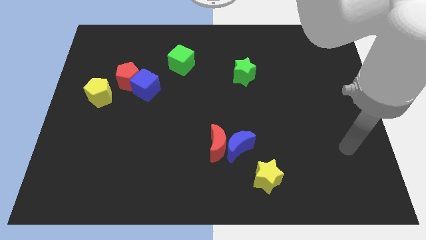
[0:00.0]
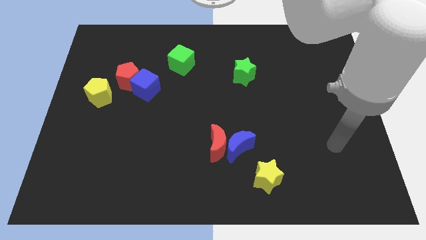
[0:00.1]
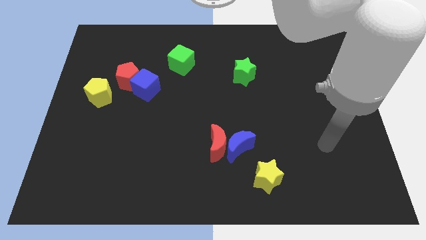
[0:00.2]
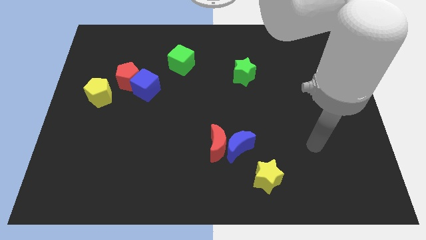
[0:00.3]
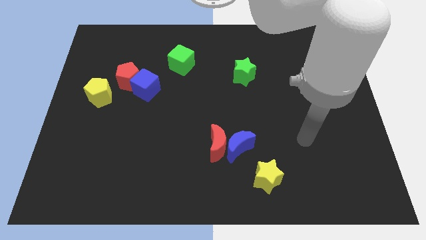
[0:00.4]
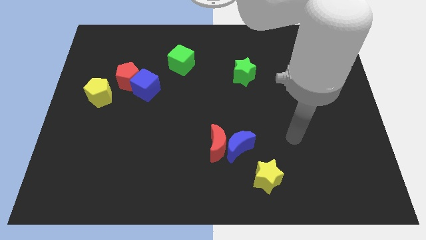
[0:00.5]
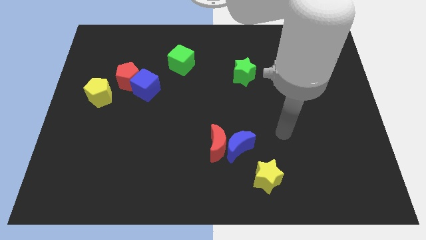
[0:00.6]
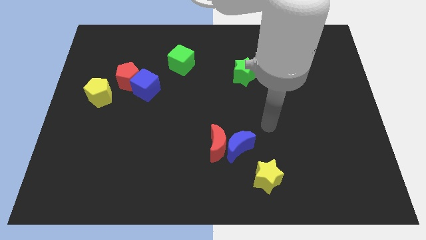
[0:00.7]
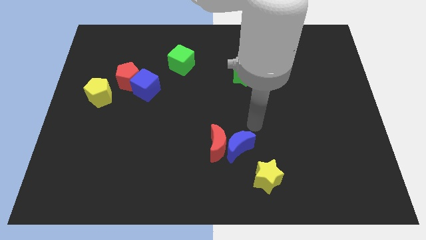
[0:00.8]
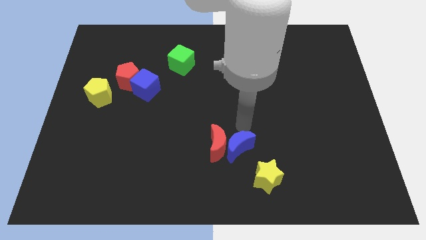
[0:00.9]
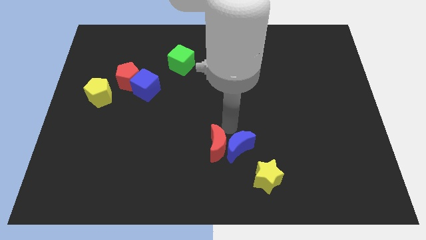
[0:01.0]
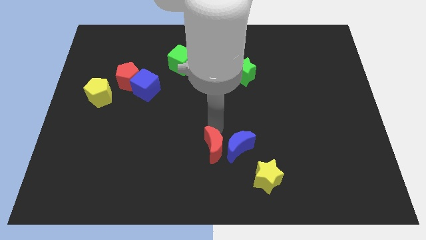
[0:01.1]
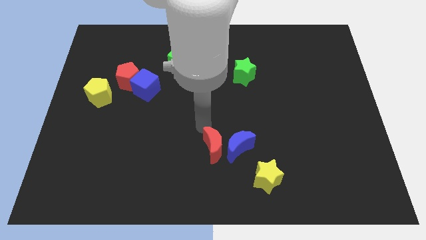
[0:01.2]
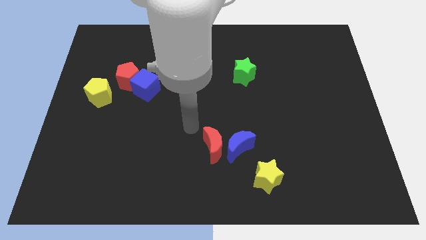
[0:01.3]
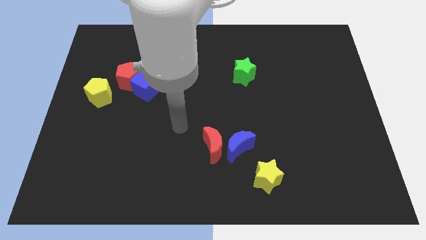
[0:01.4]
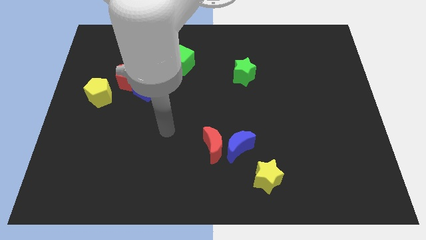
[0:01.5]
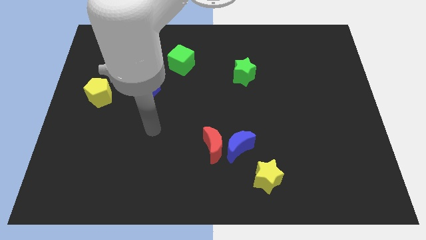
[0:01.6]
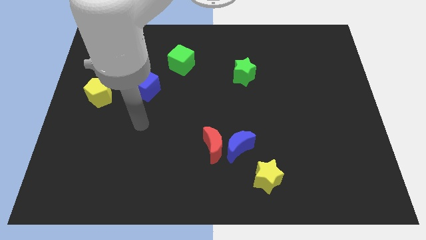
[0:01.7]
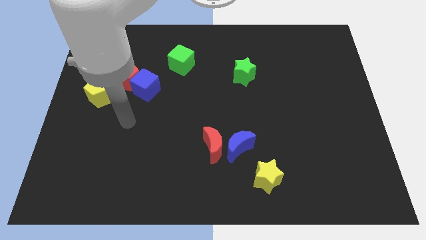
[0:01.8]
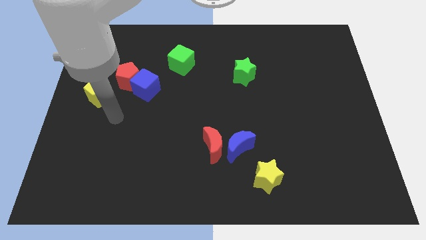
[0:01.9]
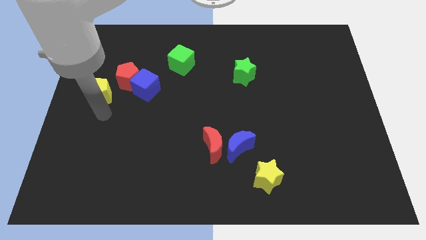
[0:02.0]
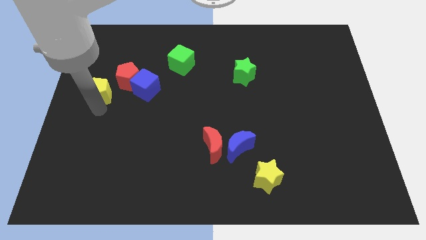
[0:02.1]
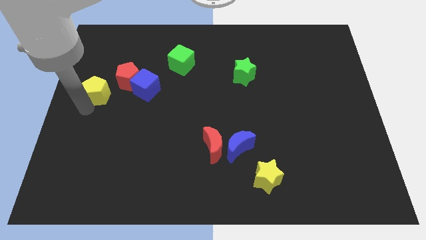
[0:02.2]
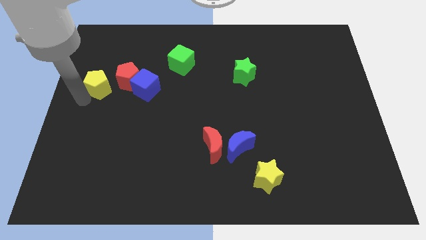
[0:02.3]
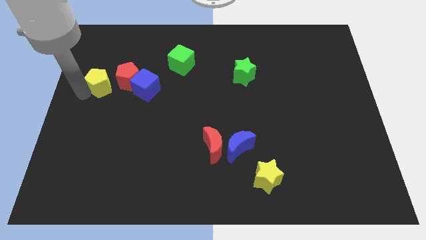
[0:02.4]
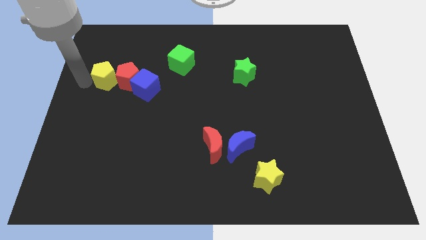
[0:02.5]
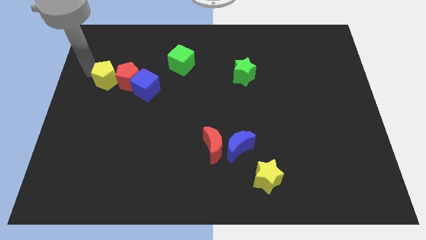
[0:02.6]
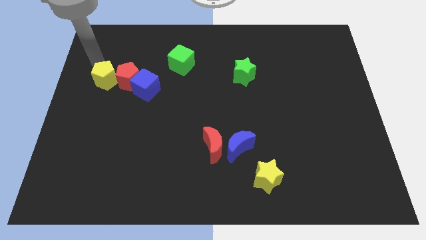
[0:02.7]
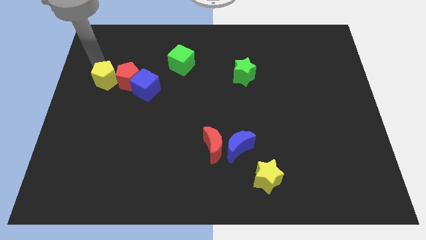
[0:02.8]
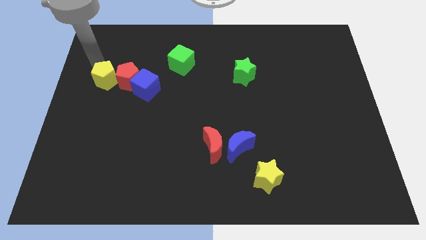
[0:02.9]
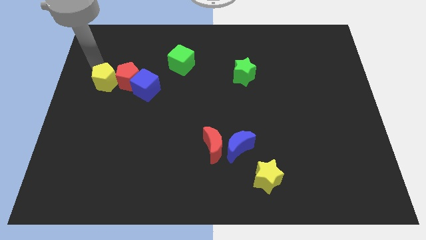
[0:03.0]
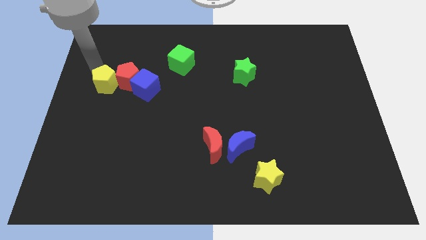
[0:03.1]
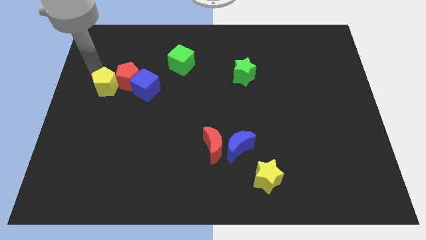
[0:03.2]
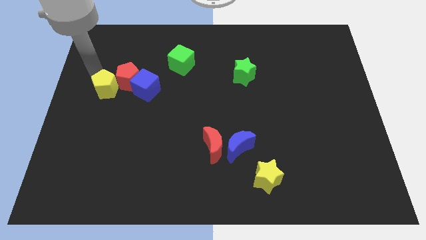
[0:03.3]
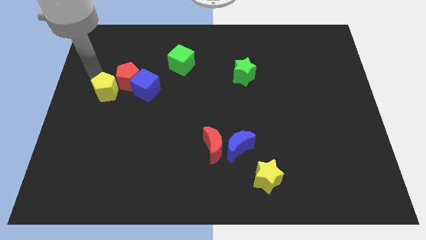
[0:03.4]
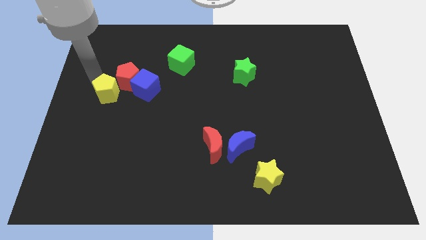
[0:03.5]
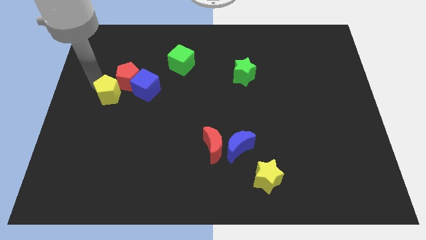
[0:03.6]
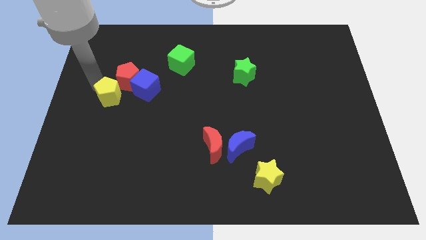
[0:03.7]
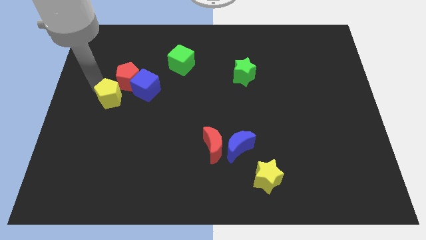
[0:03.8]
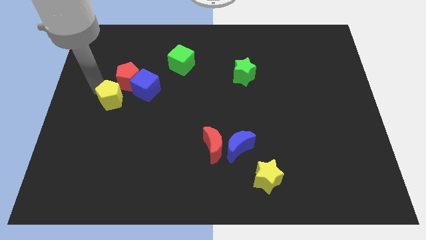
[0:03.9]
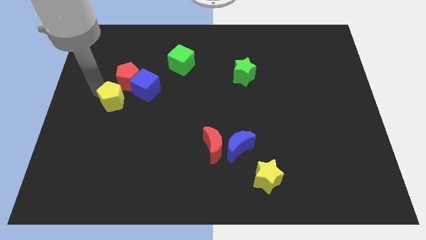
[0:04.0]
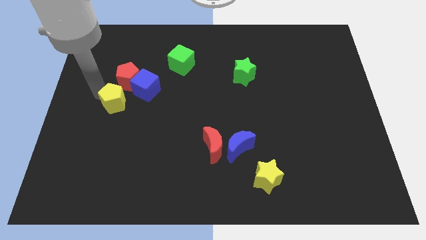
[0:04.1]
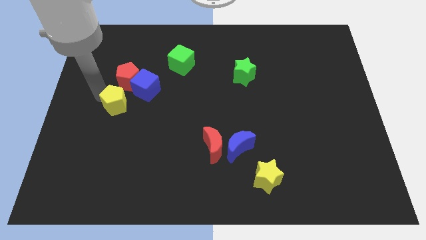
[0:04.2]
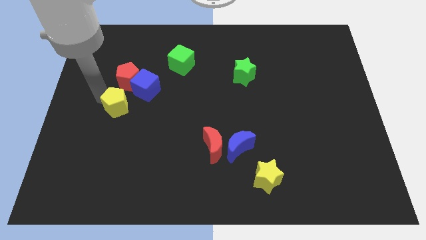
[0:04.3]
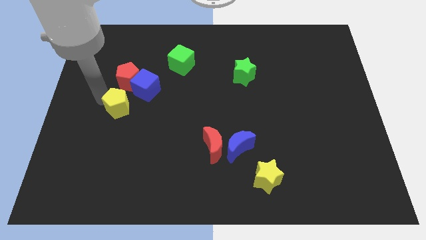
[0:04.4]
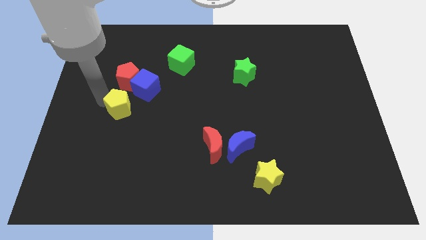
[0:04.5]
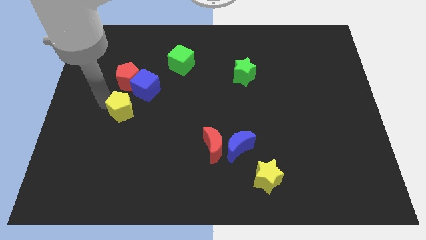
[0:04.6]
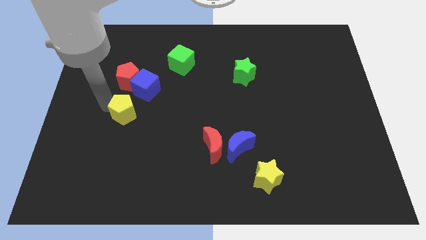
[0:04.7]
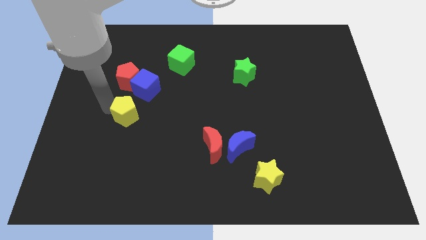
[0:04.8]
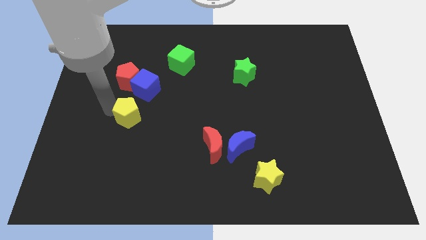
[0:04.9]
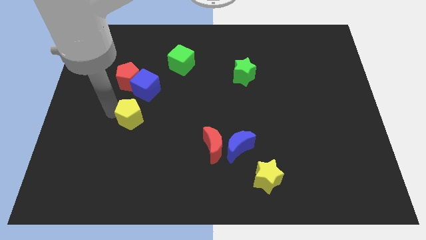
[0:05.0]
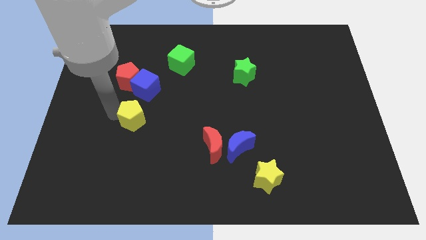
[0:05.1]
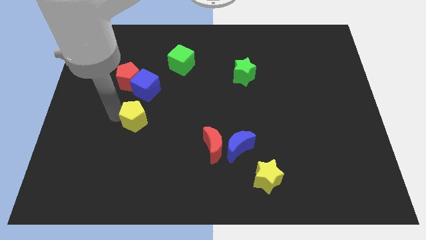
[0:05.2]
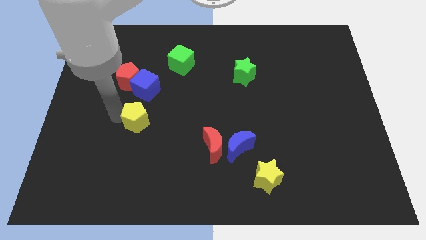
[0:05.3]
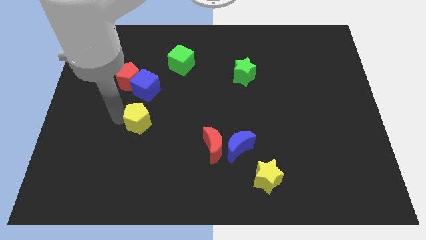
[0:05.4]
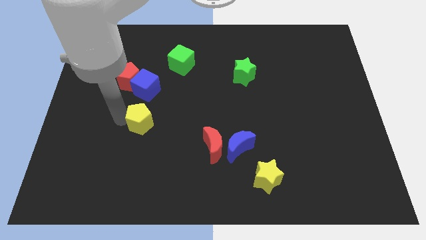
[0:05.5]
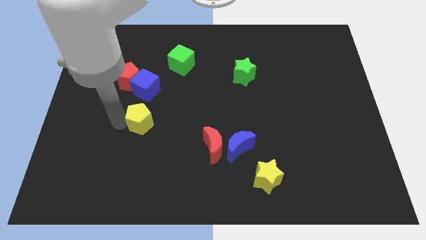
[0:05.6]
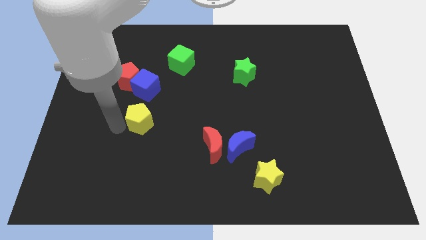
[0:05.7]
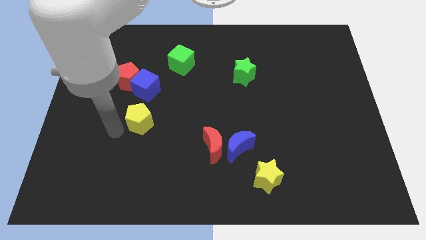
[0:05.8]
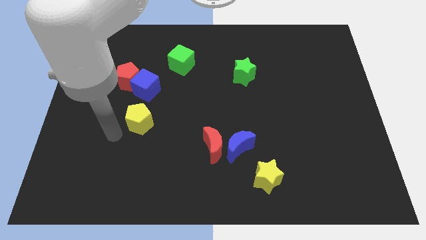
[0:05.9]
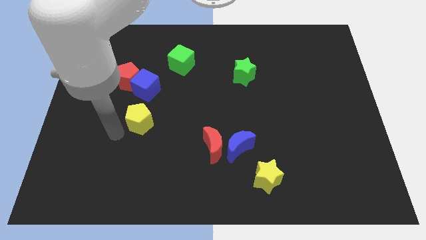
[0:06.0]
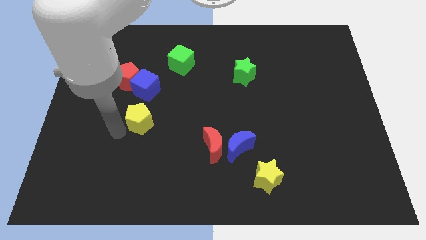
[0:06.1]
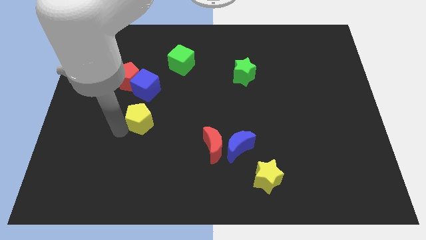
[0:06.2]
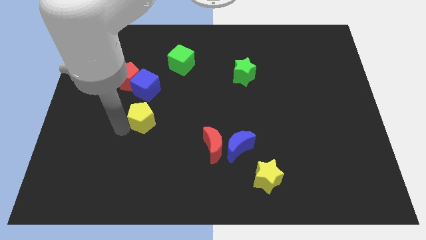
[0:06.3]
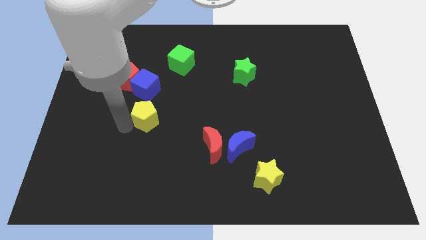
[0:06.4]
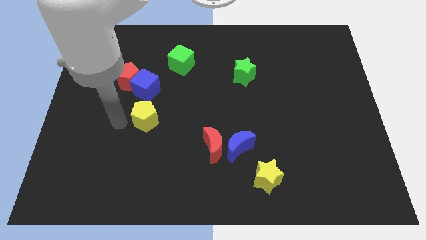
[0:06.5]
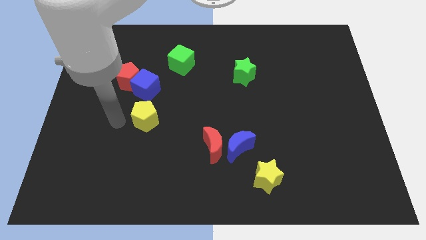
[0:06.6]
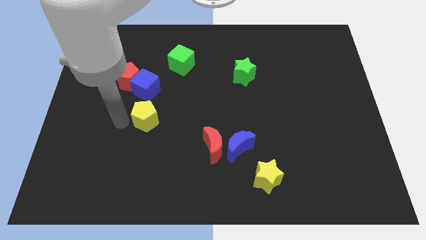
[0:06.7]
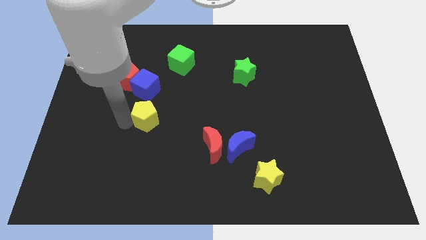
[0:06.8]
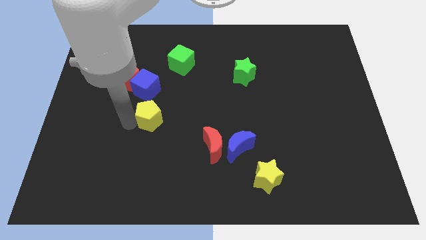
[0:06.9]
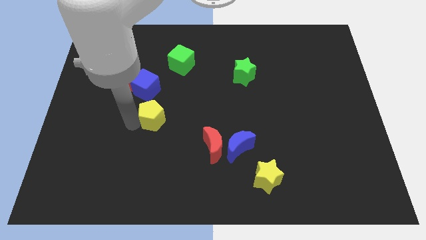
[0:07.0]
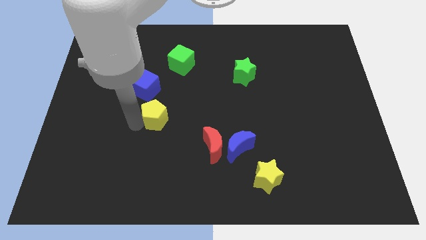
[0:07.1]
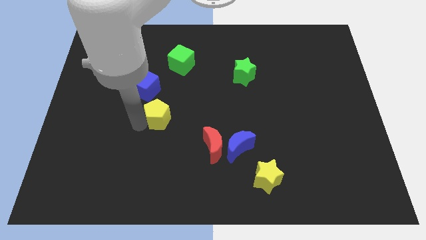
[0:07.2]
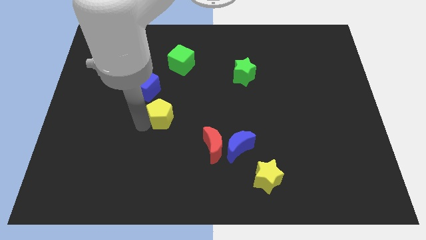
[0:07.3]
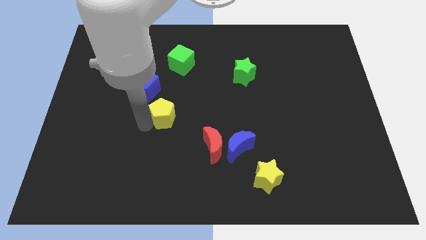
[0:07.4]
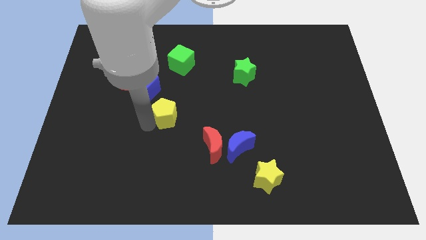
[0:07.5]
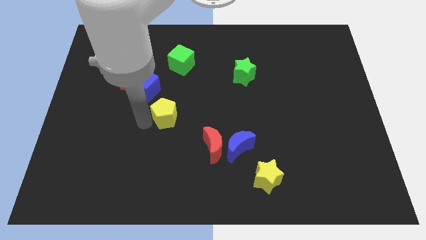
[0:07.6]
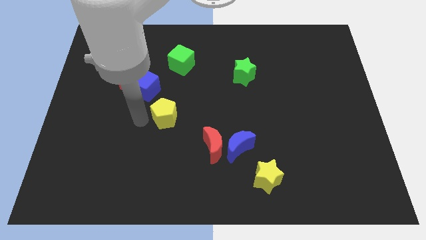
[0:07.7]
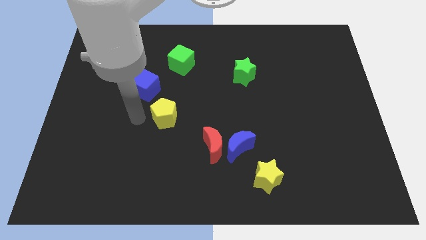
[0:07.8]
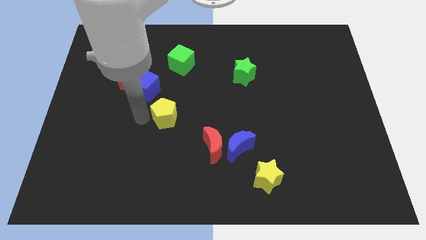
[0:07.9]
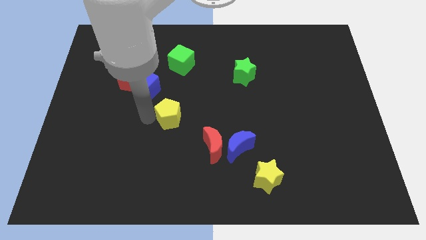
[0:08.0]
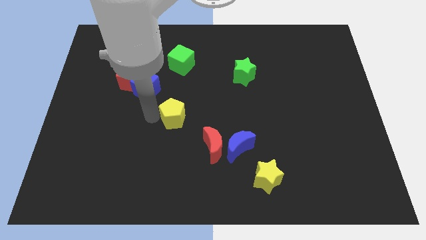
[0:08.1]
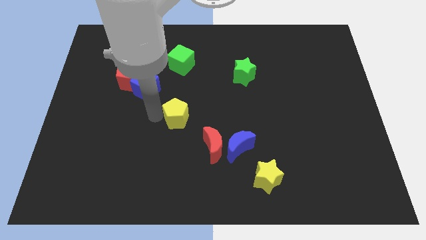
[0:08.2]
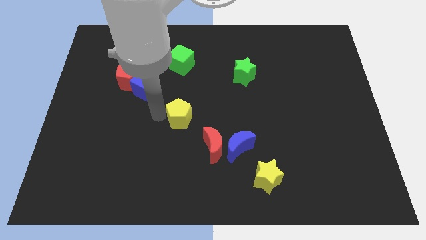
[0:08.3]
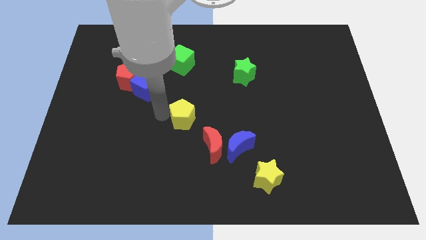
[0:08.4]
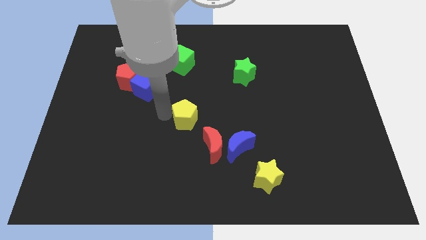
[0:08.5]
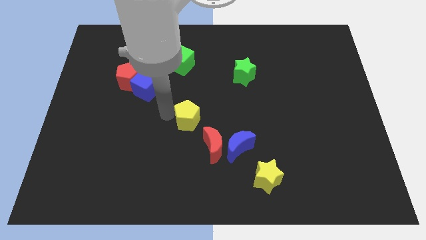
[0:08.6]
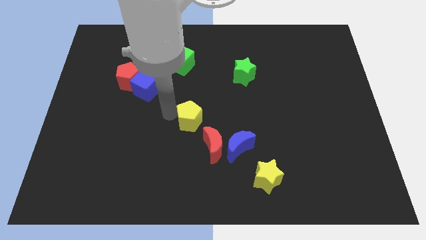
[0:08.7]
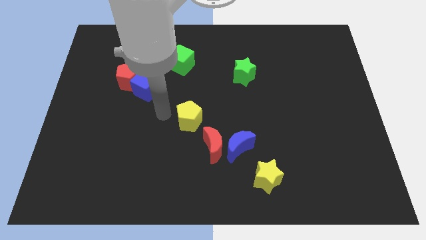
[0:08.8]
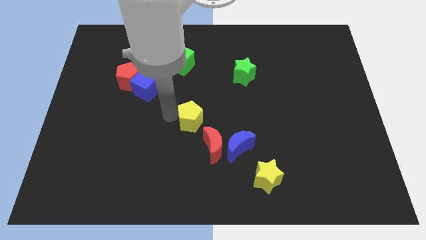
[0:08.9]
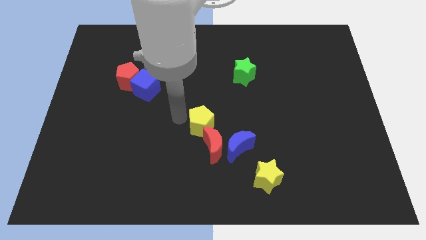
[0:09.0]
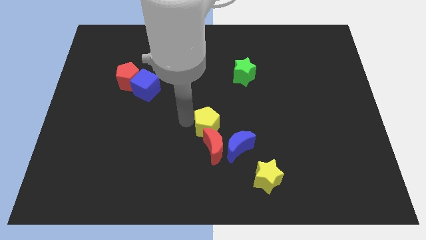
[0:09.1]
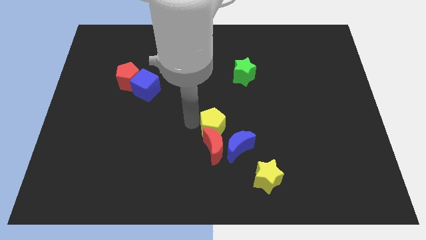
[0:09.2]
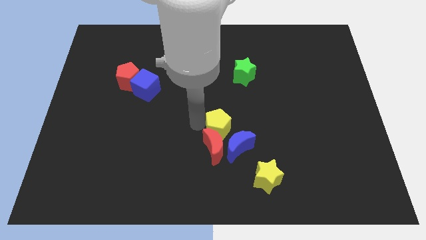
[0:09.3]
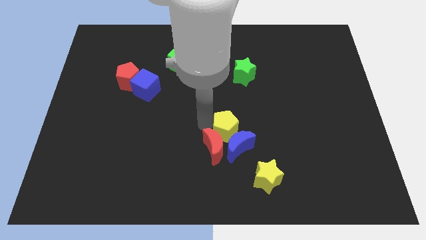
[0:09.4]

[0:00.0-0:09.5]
put the yellow pentagon next to the blue moon
